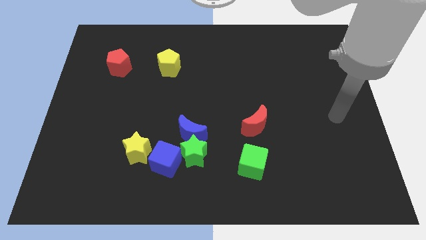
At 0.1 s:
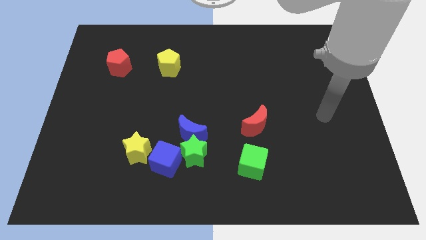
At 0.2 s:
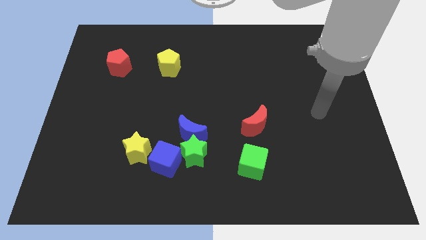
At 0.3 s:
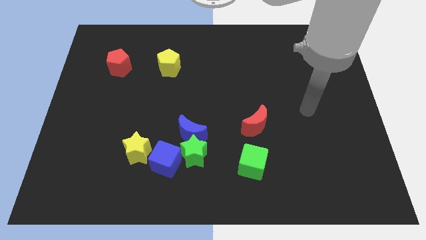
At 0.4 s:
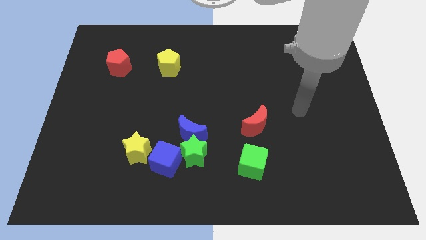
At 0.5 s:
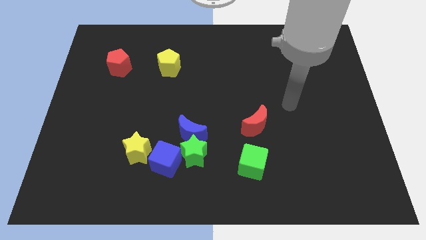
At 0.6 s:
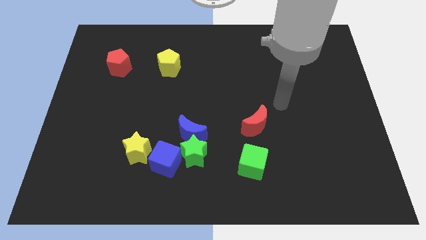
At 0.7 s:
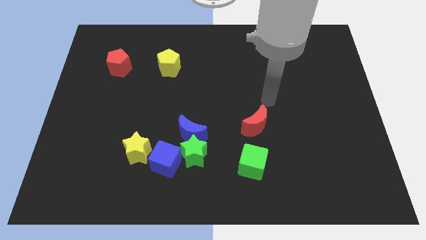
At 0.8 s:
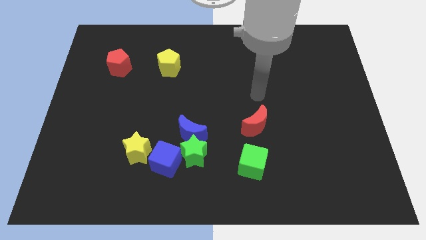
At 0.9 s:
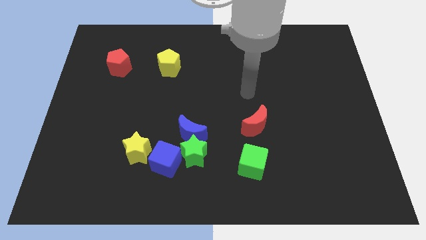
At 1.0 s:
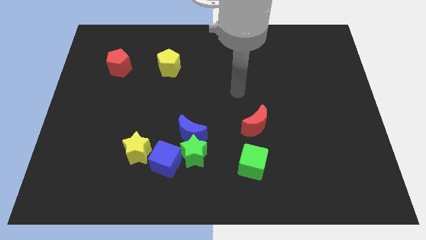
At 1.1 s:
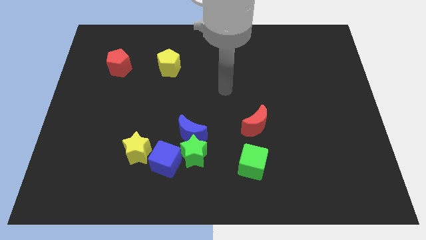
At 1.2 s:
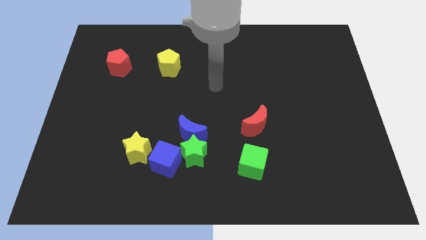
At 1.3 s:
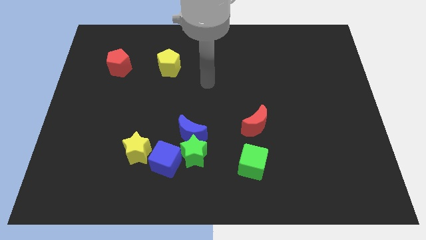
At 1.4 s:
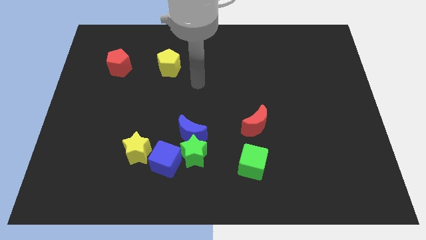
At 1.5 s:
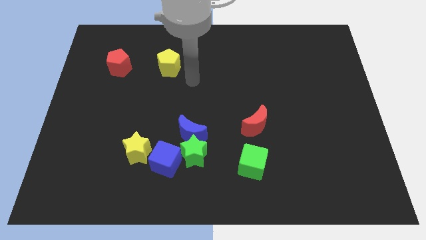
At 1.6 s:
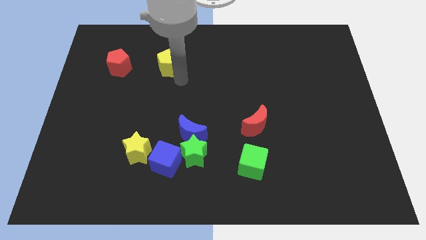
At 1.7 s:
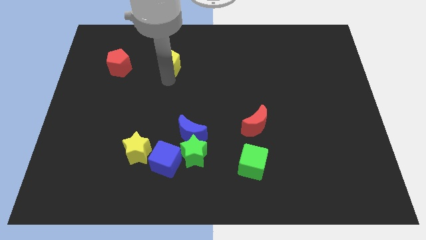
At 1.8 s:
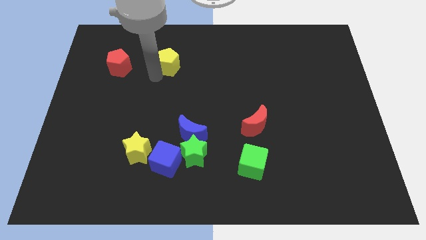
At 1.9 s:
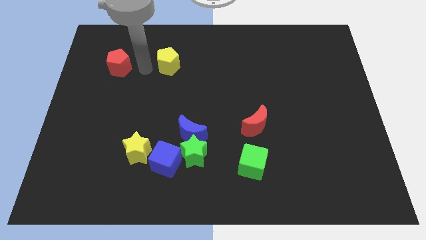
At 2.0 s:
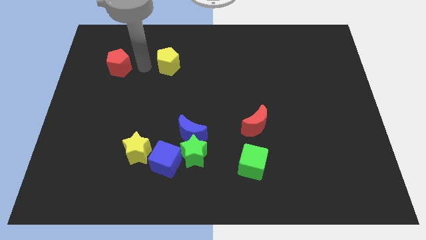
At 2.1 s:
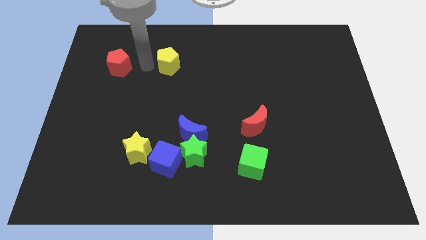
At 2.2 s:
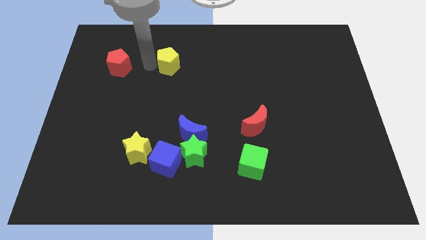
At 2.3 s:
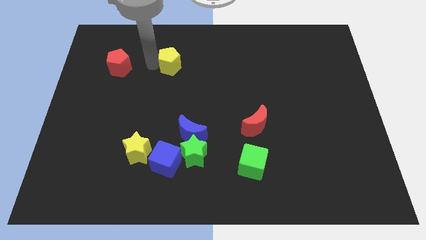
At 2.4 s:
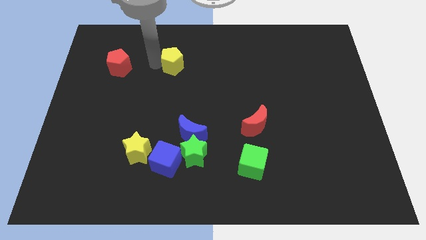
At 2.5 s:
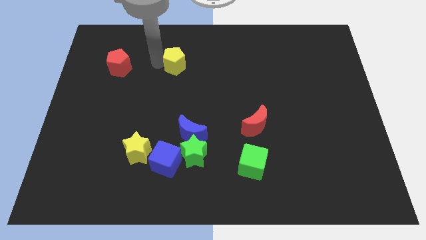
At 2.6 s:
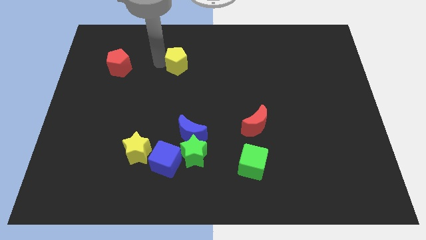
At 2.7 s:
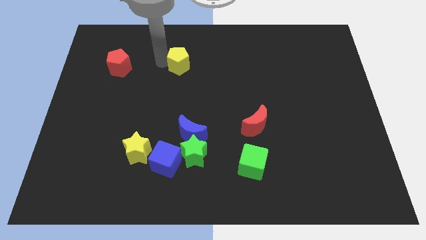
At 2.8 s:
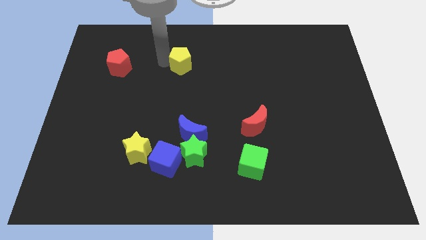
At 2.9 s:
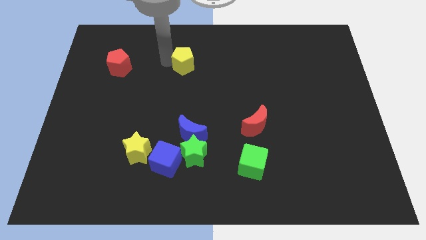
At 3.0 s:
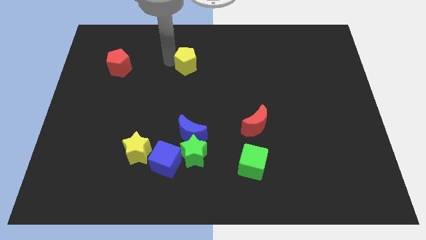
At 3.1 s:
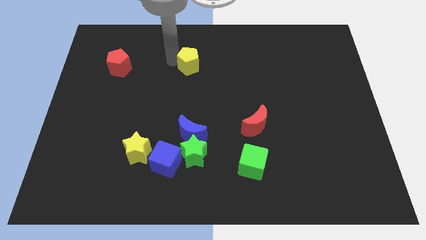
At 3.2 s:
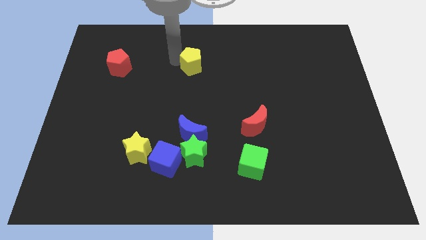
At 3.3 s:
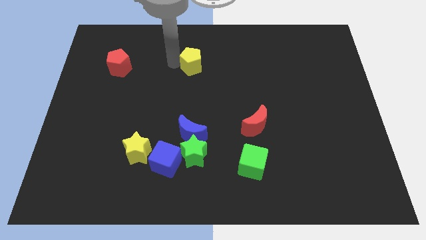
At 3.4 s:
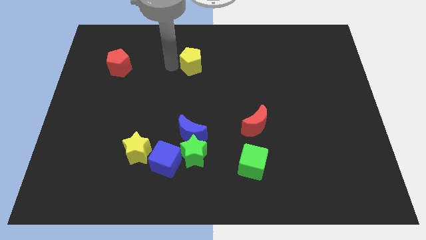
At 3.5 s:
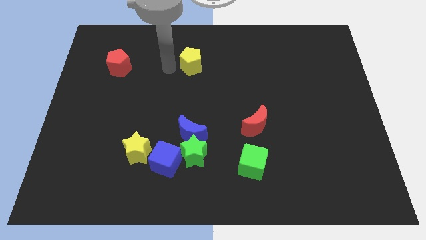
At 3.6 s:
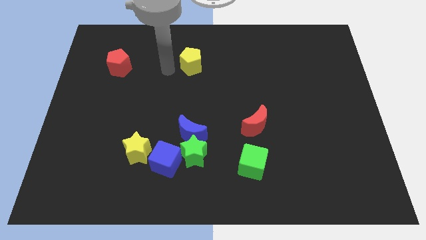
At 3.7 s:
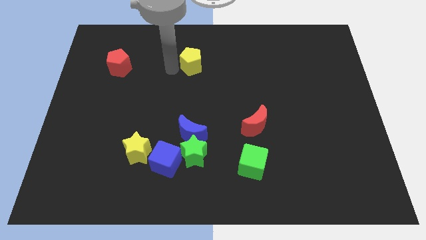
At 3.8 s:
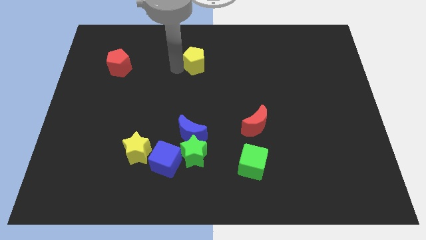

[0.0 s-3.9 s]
push the yellow pentagon somewhat right

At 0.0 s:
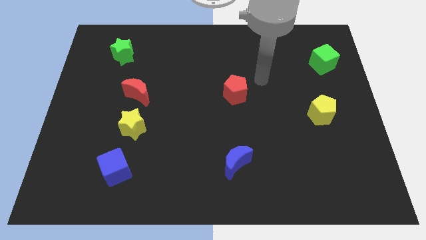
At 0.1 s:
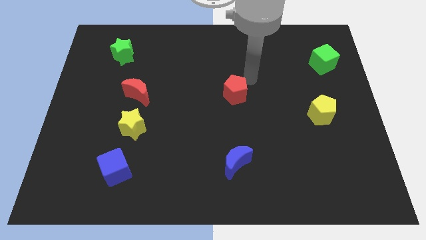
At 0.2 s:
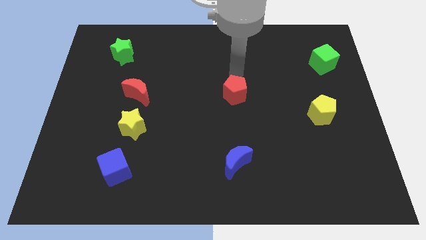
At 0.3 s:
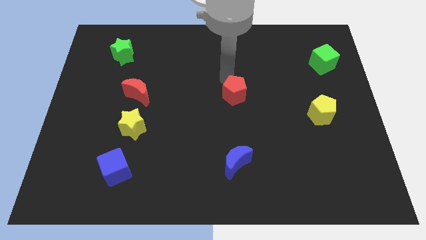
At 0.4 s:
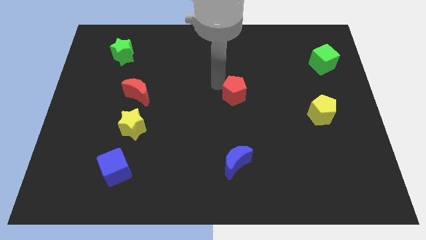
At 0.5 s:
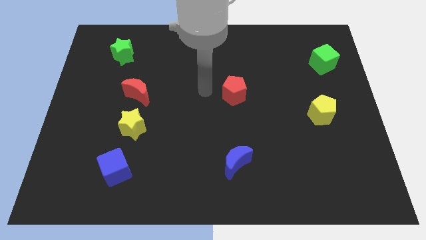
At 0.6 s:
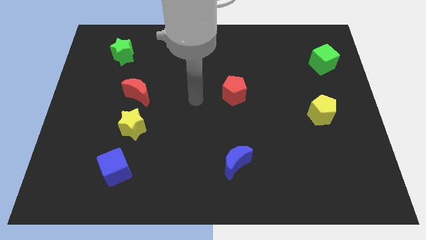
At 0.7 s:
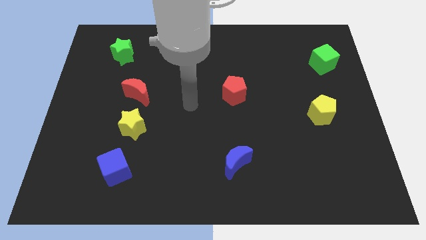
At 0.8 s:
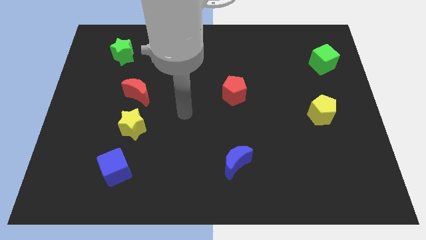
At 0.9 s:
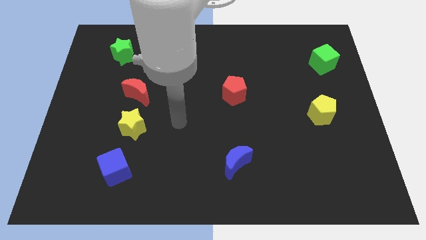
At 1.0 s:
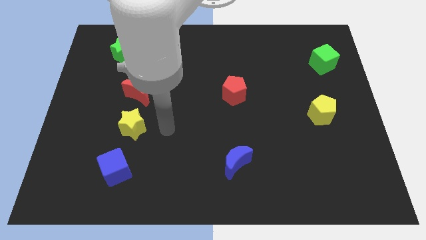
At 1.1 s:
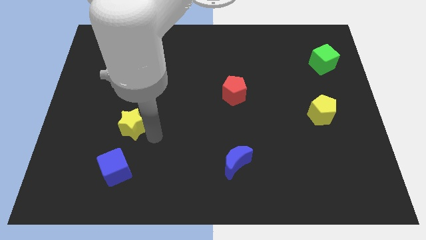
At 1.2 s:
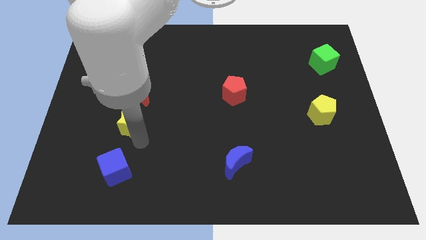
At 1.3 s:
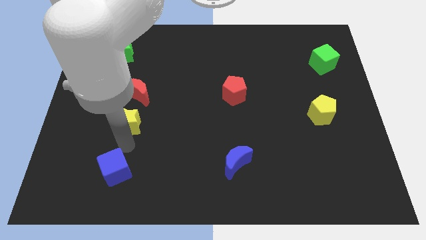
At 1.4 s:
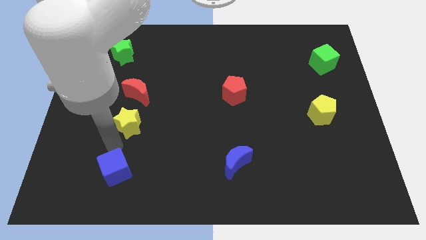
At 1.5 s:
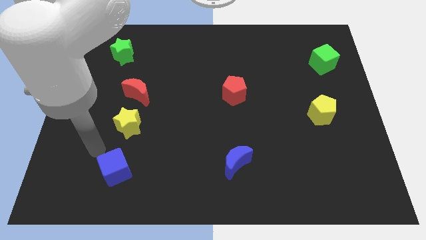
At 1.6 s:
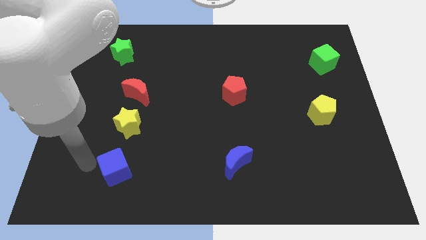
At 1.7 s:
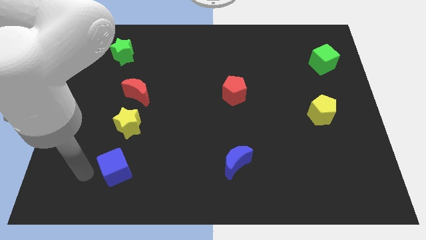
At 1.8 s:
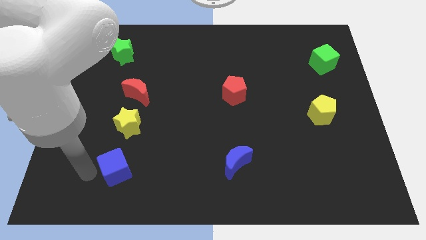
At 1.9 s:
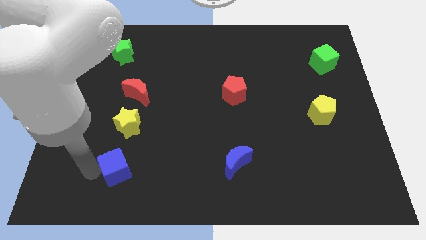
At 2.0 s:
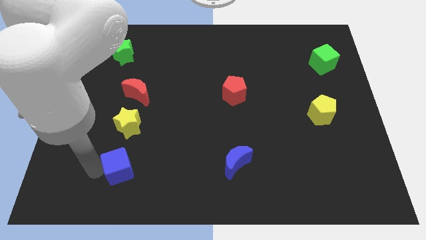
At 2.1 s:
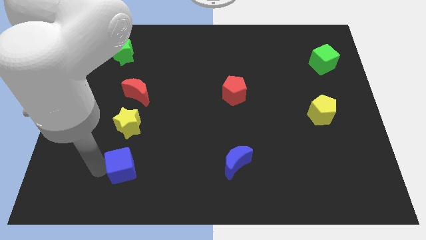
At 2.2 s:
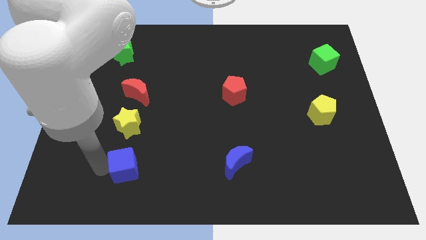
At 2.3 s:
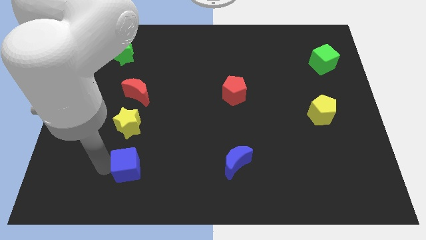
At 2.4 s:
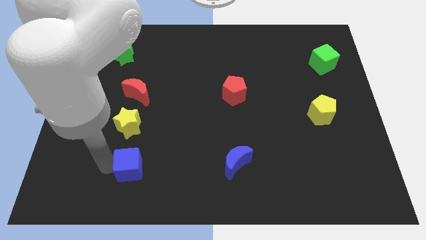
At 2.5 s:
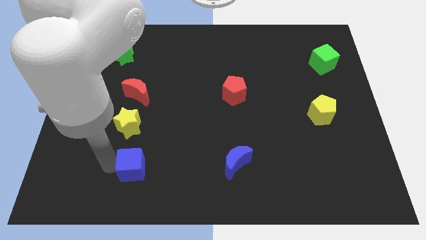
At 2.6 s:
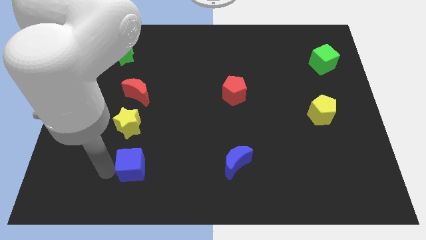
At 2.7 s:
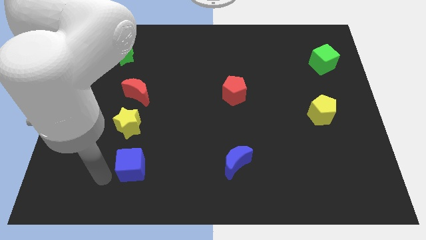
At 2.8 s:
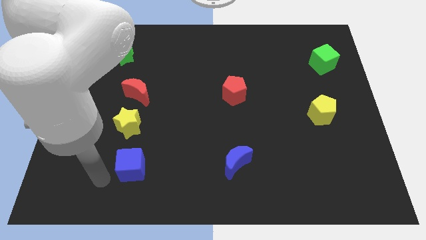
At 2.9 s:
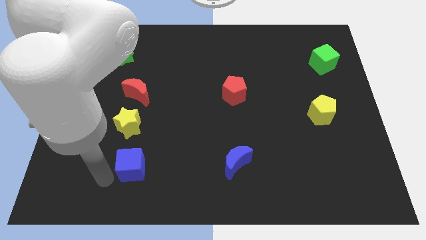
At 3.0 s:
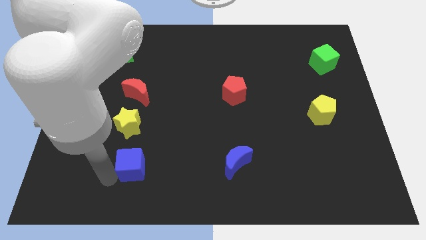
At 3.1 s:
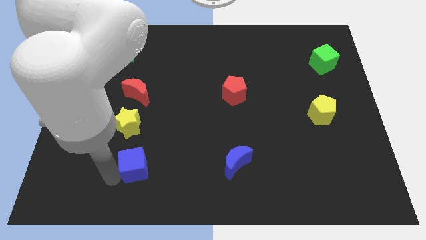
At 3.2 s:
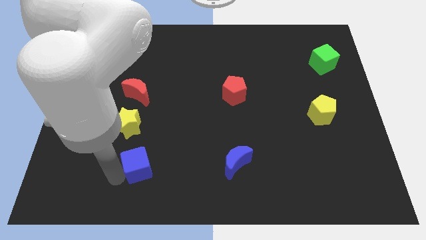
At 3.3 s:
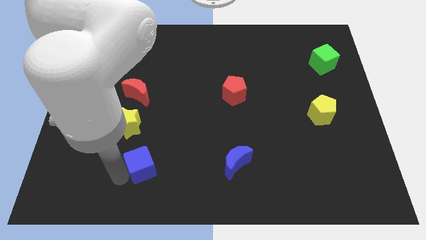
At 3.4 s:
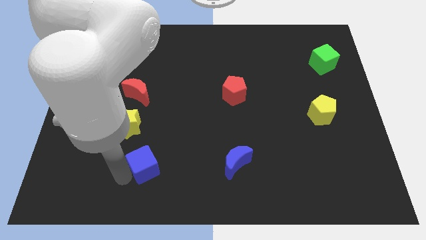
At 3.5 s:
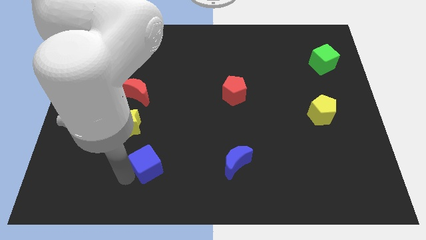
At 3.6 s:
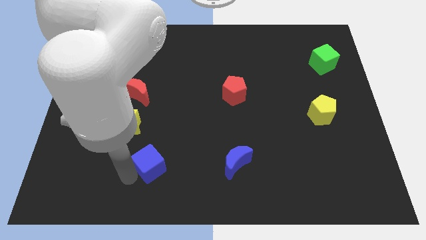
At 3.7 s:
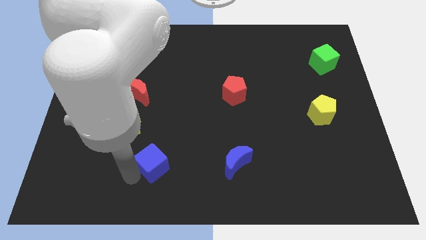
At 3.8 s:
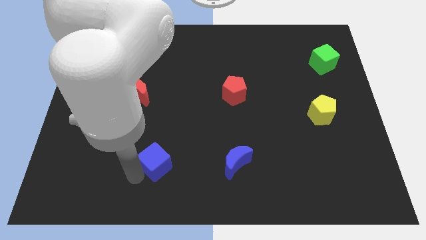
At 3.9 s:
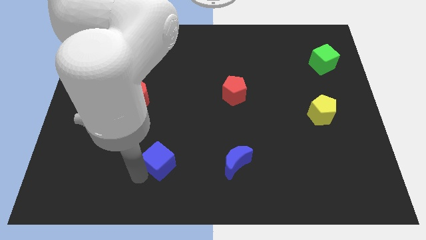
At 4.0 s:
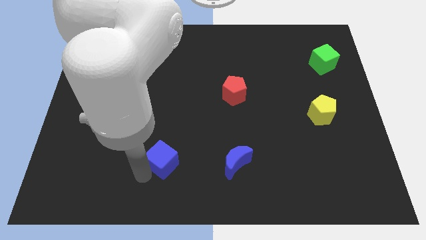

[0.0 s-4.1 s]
push the blue cube up and to the right diagonally slightly
